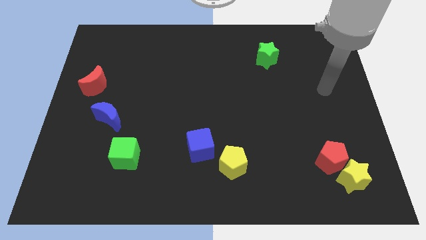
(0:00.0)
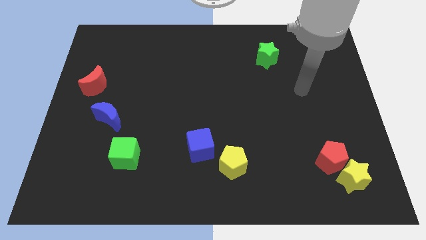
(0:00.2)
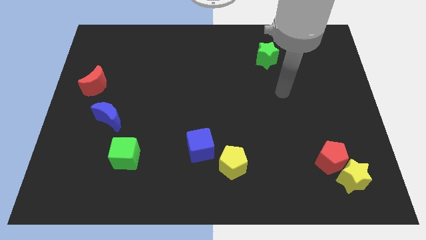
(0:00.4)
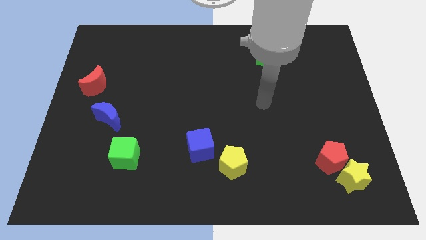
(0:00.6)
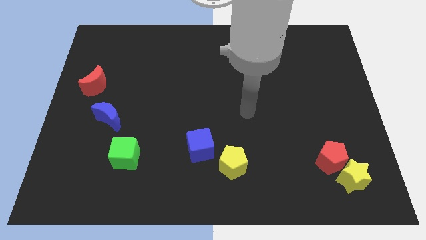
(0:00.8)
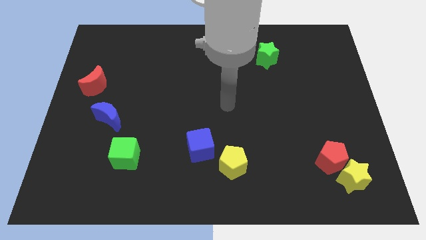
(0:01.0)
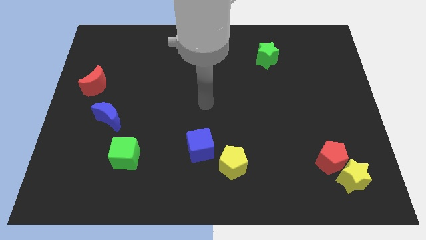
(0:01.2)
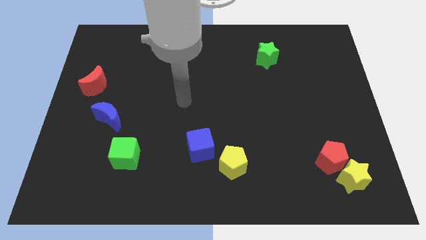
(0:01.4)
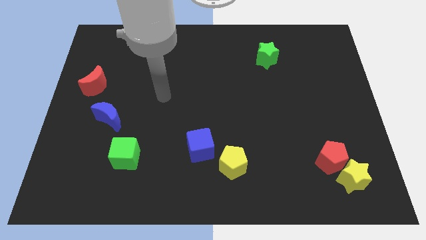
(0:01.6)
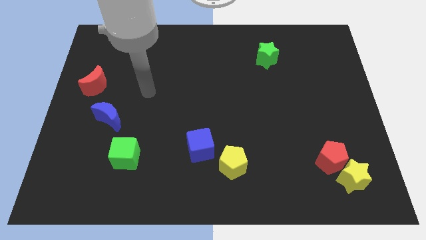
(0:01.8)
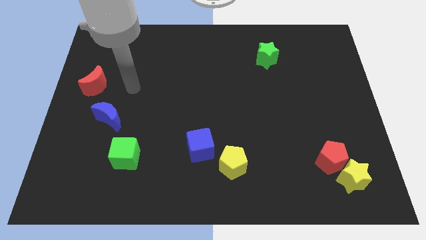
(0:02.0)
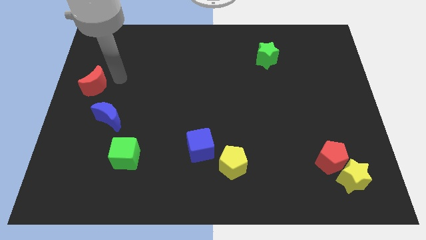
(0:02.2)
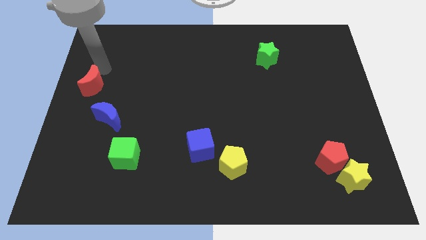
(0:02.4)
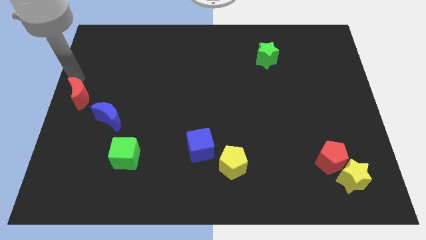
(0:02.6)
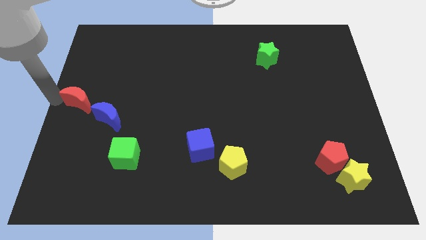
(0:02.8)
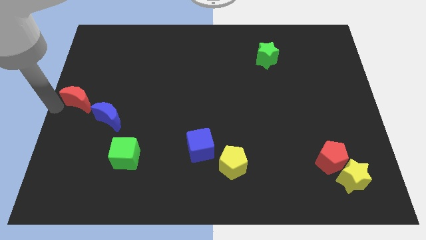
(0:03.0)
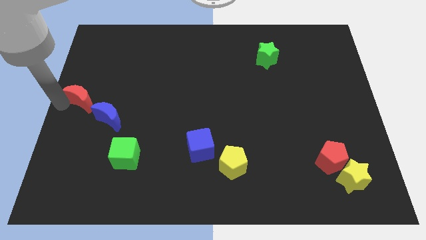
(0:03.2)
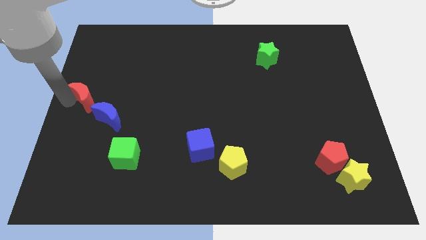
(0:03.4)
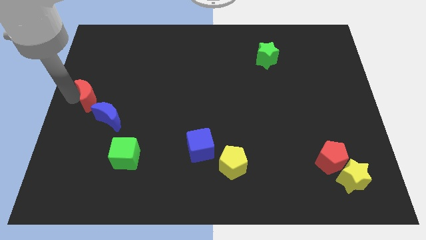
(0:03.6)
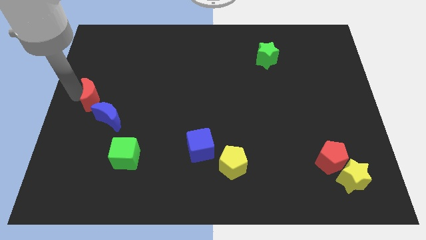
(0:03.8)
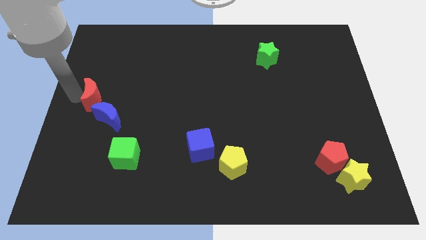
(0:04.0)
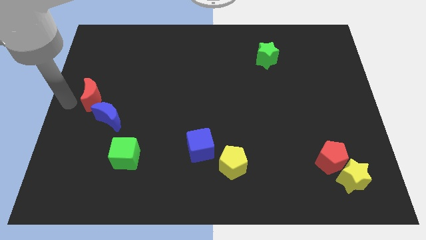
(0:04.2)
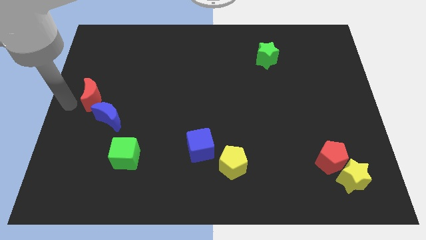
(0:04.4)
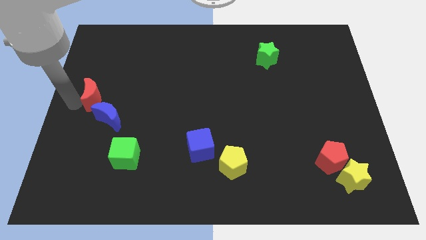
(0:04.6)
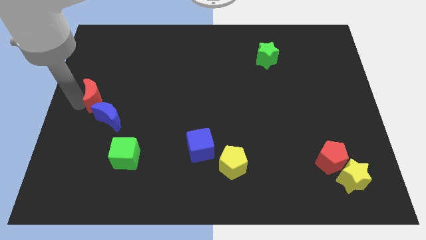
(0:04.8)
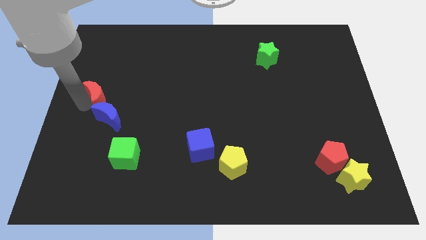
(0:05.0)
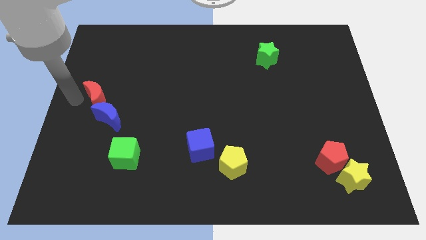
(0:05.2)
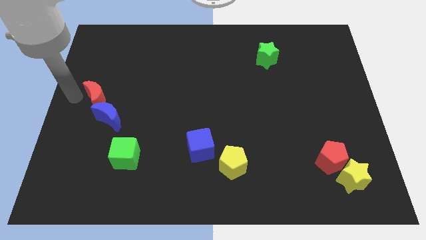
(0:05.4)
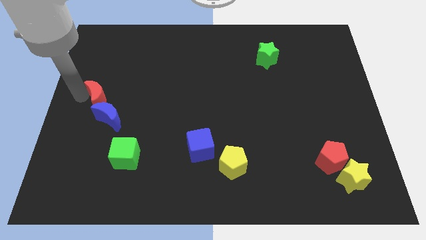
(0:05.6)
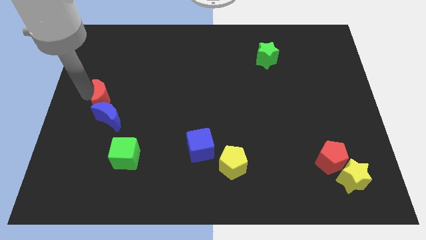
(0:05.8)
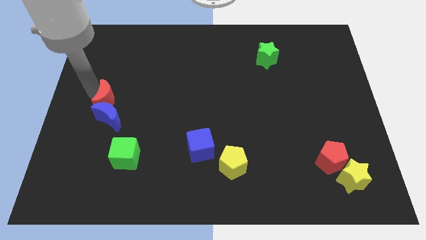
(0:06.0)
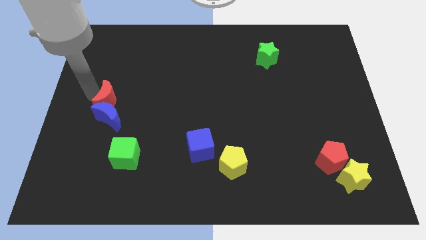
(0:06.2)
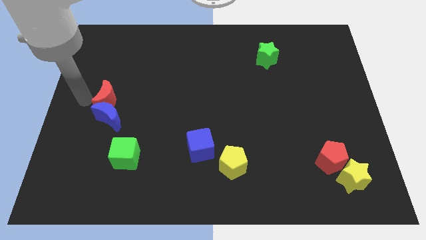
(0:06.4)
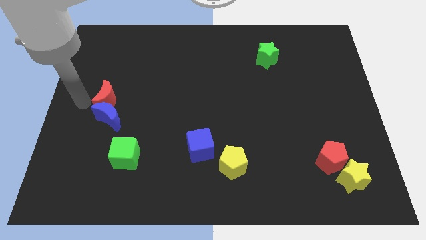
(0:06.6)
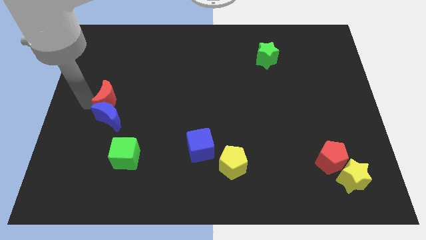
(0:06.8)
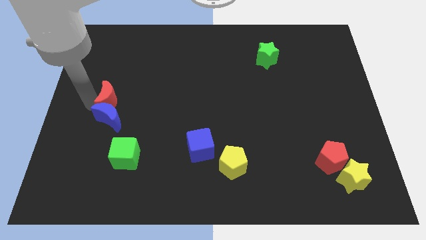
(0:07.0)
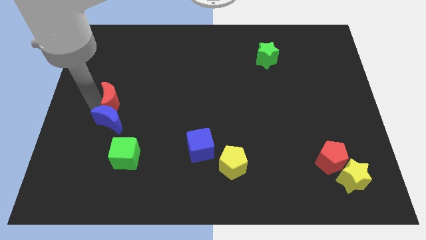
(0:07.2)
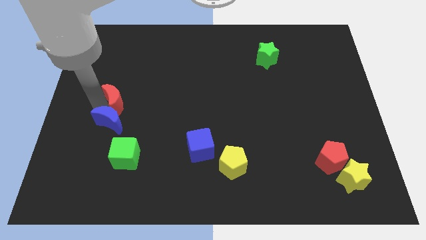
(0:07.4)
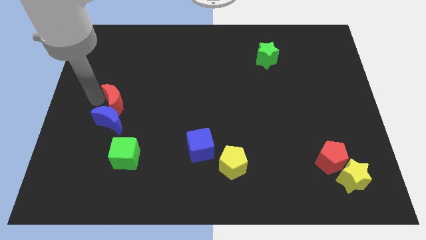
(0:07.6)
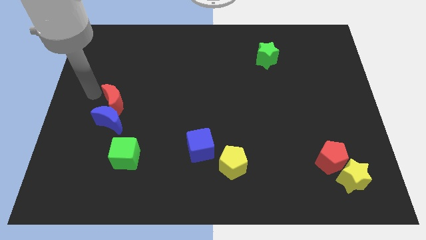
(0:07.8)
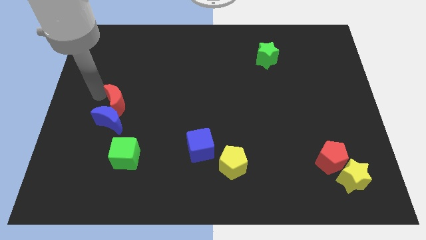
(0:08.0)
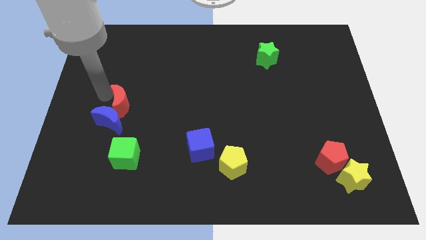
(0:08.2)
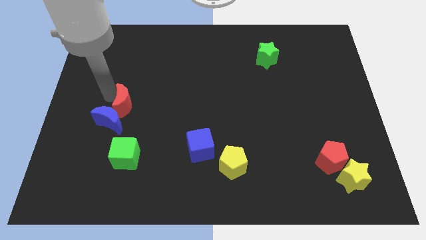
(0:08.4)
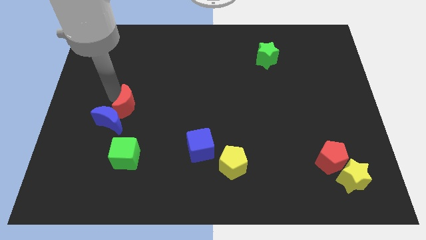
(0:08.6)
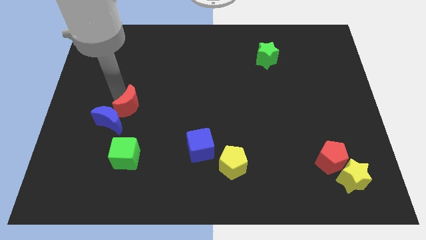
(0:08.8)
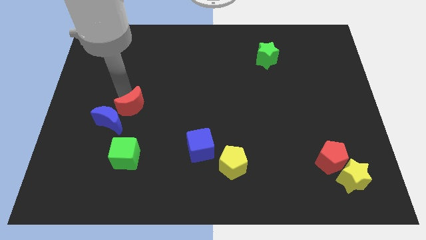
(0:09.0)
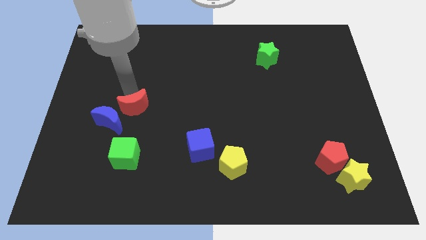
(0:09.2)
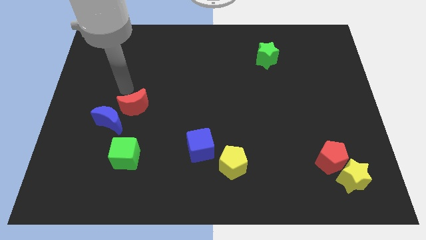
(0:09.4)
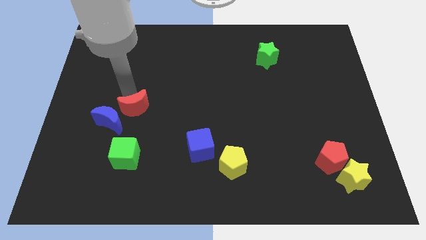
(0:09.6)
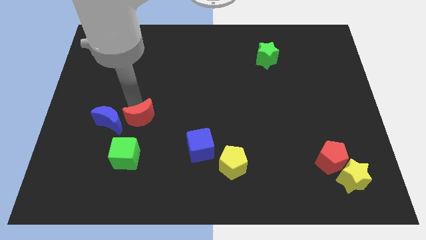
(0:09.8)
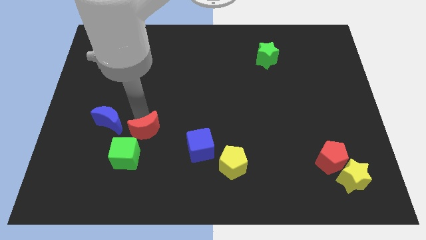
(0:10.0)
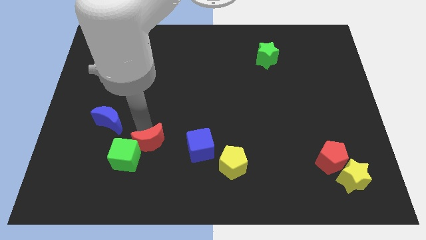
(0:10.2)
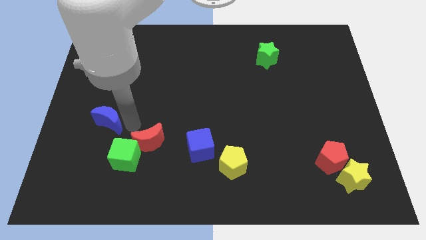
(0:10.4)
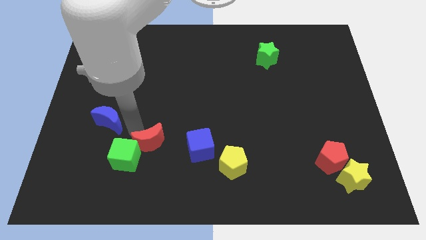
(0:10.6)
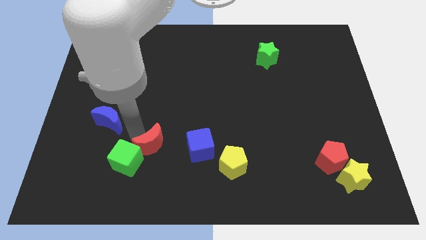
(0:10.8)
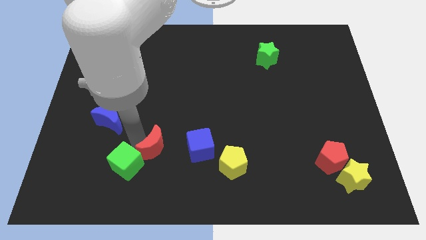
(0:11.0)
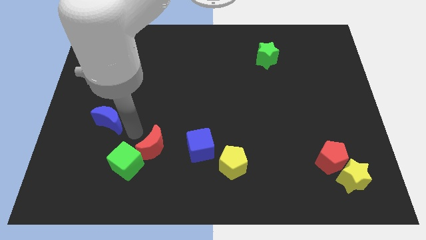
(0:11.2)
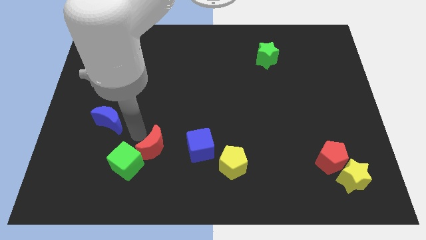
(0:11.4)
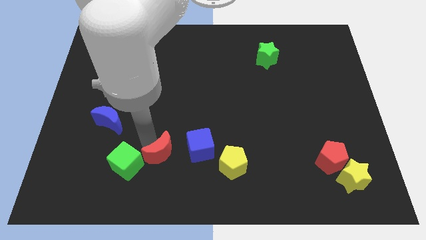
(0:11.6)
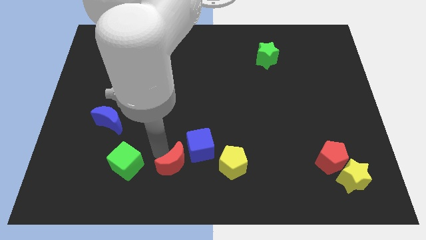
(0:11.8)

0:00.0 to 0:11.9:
push the red moon to the bottom
